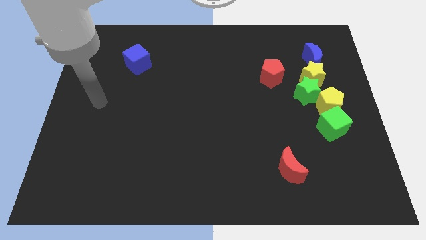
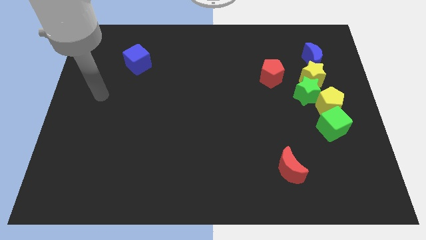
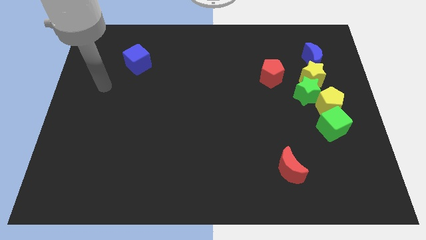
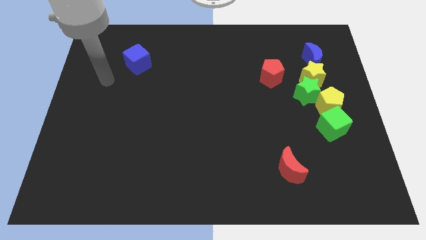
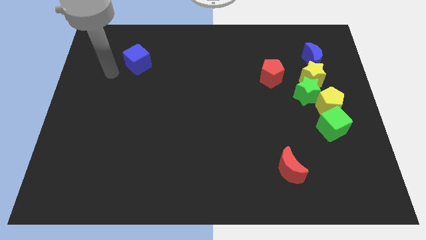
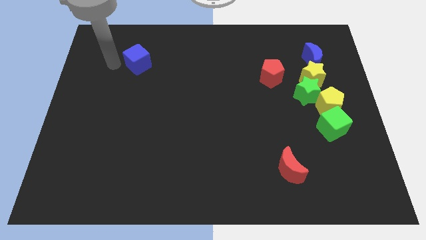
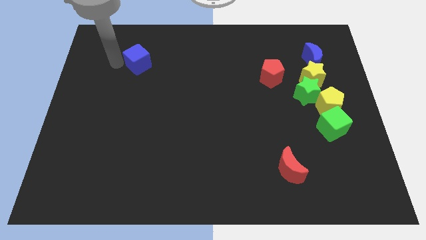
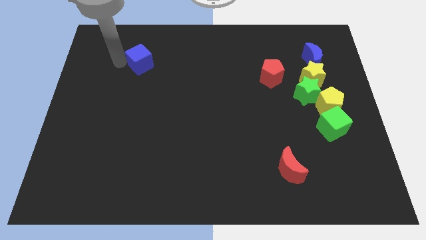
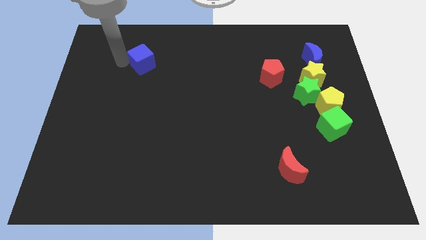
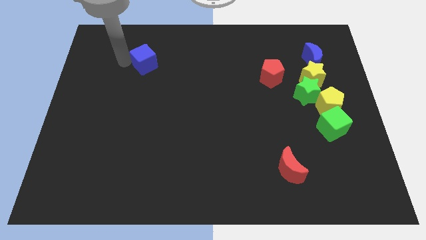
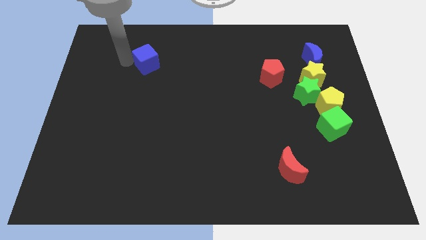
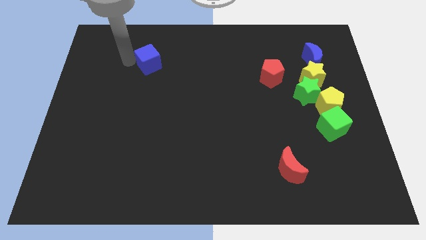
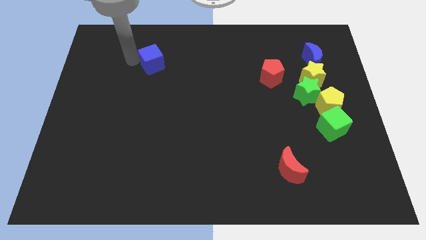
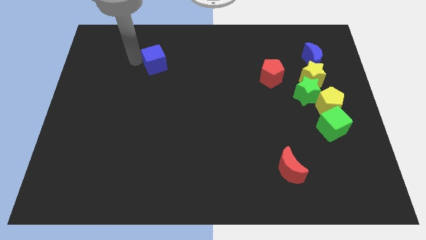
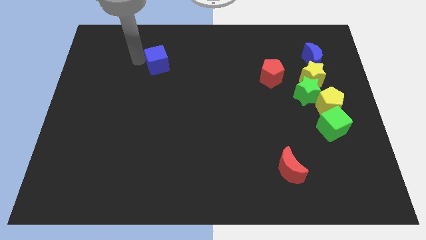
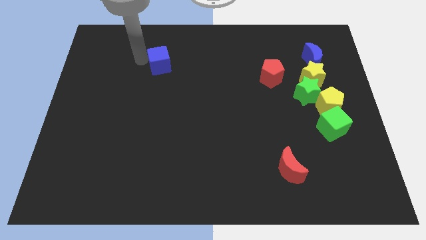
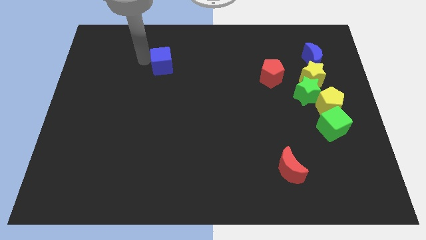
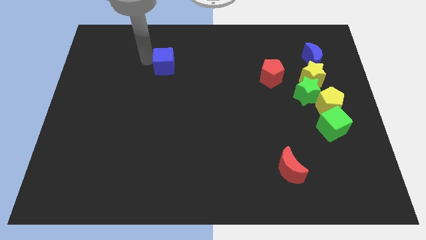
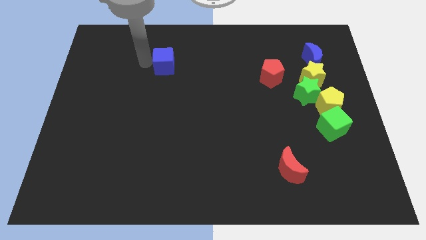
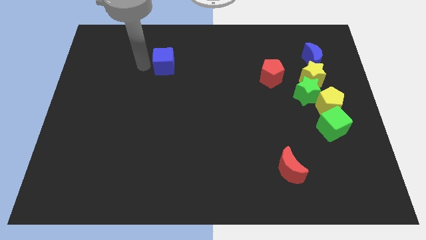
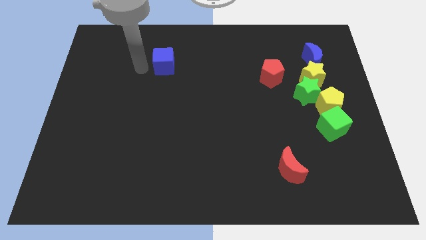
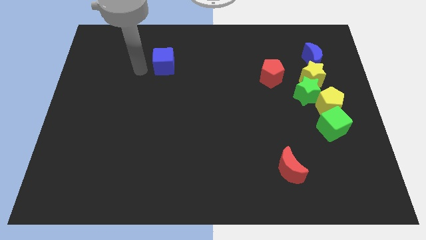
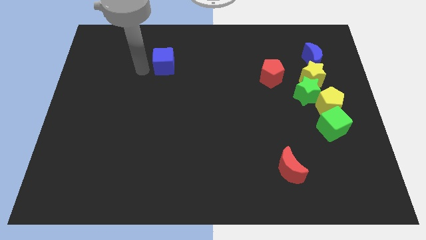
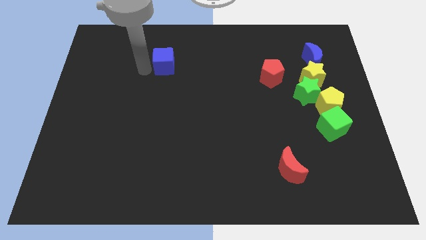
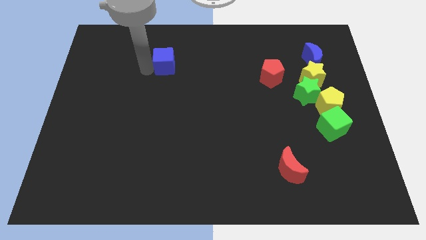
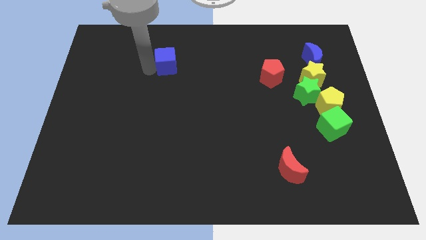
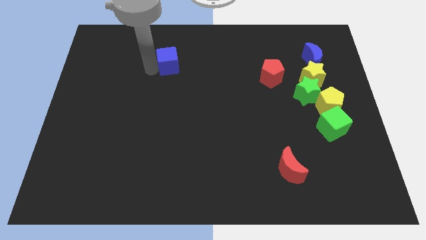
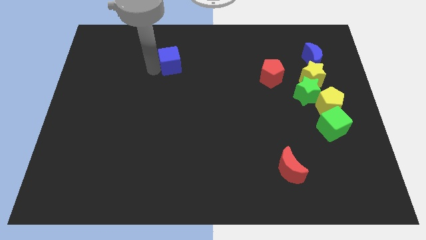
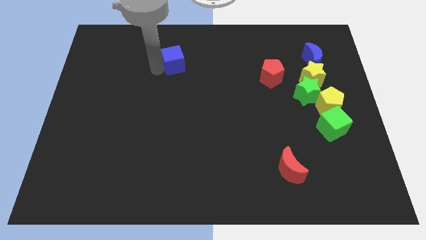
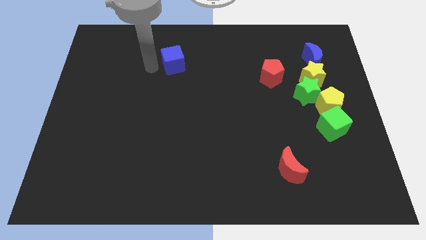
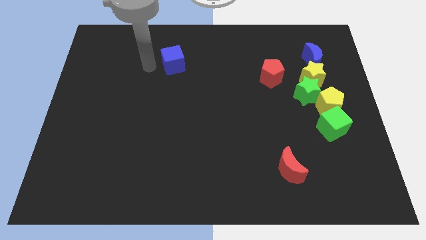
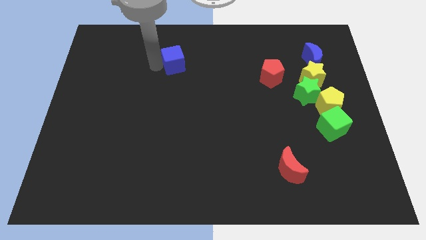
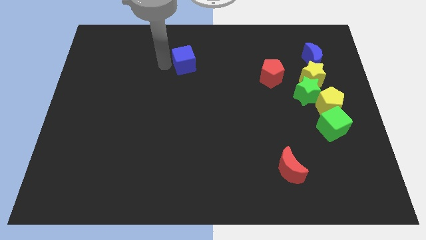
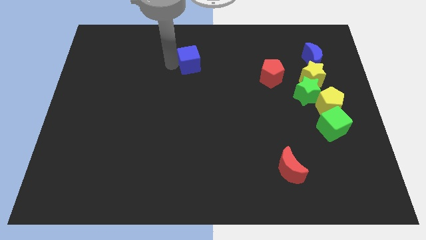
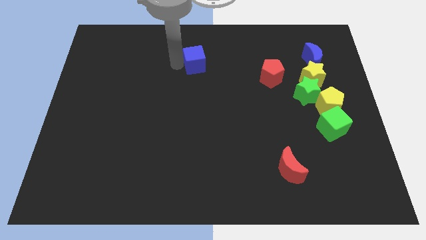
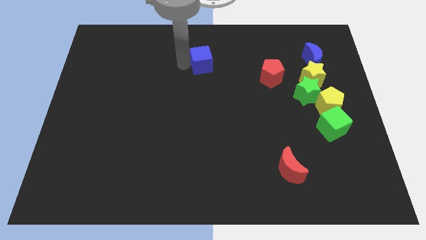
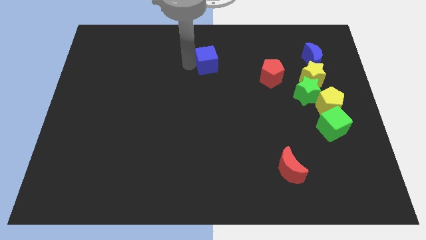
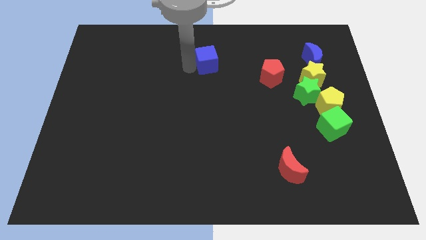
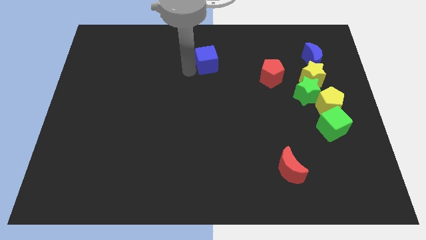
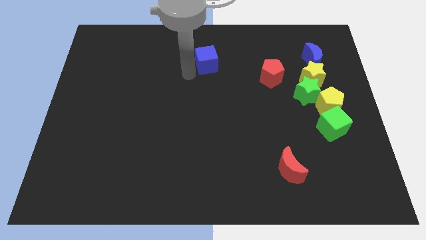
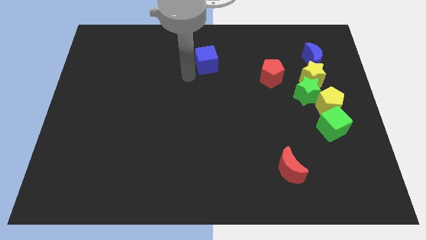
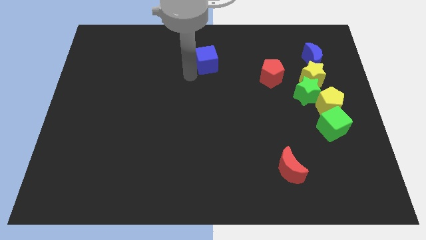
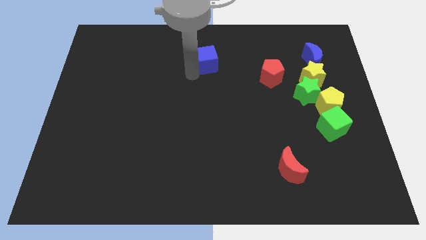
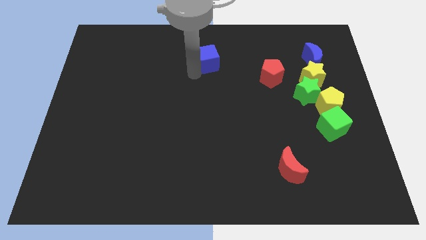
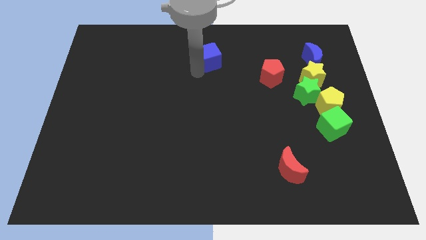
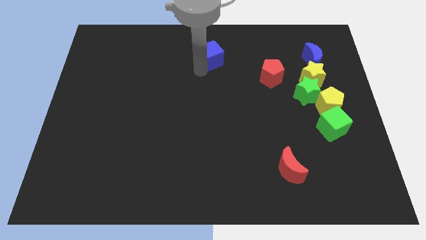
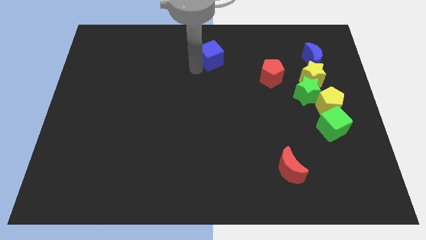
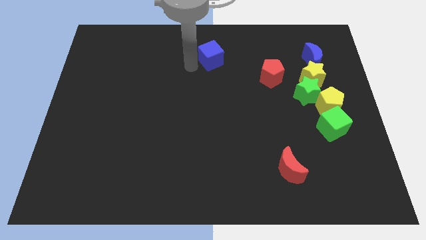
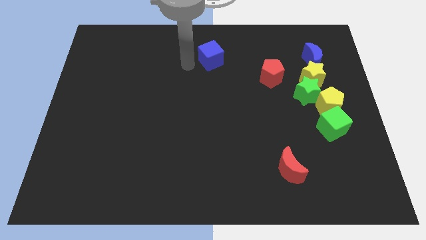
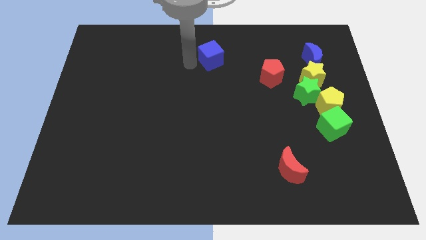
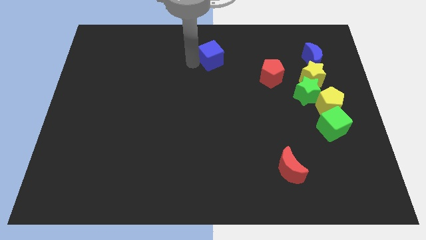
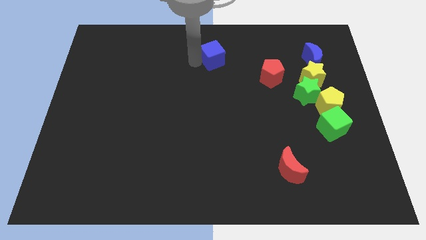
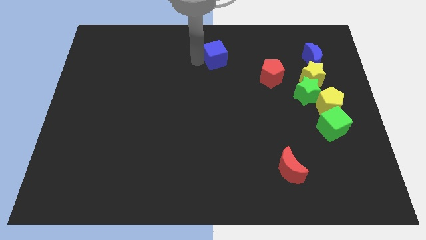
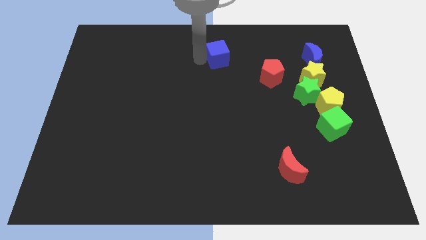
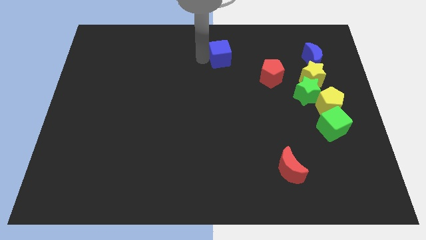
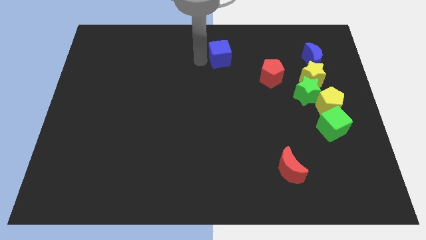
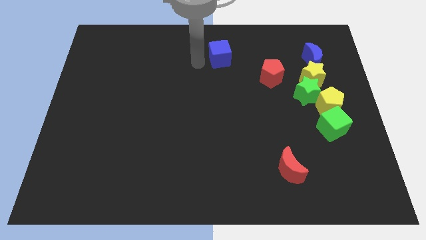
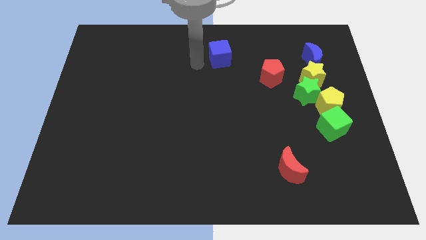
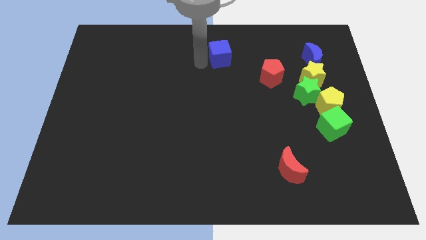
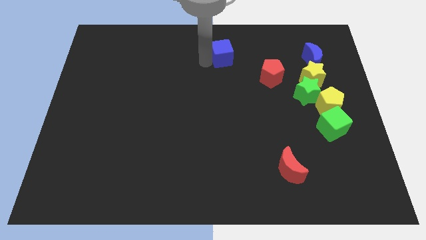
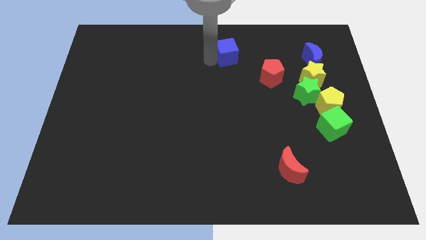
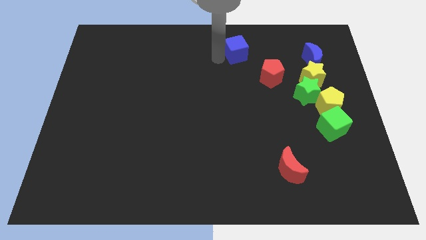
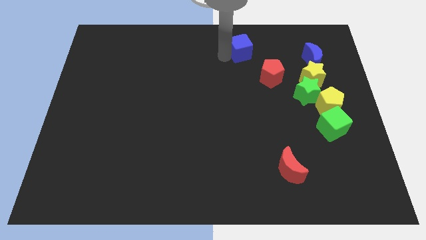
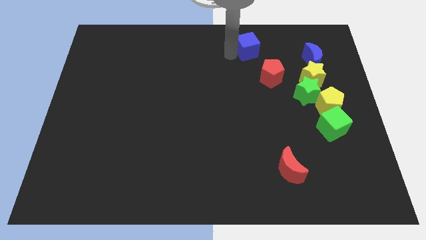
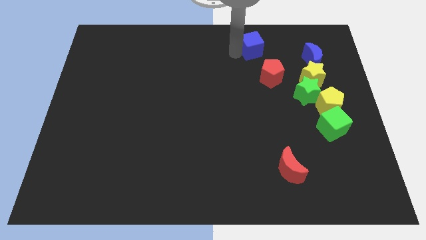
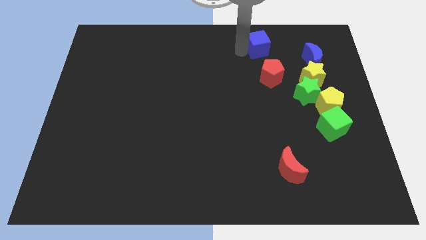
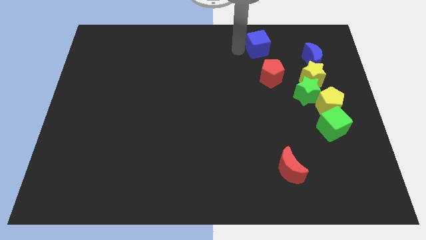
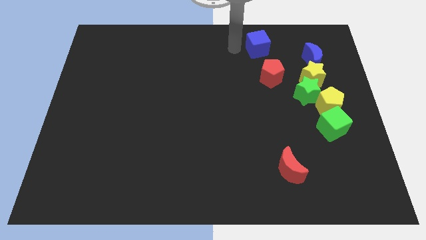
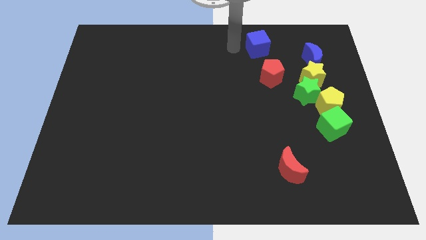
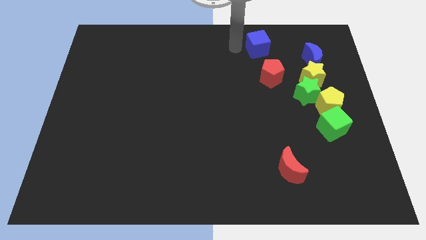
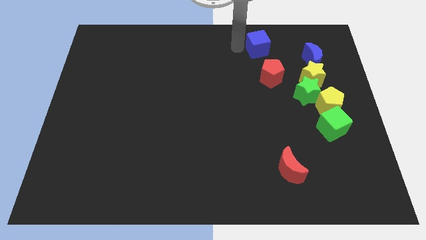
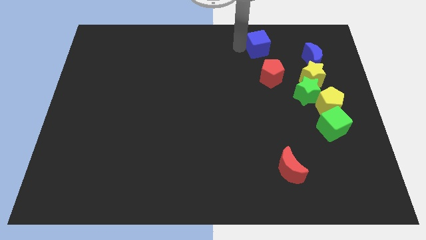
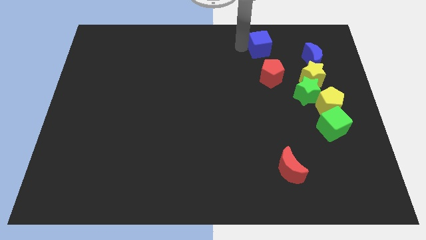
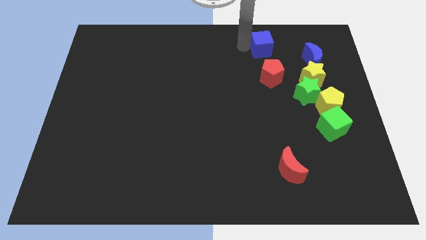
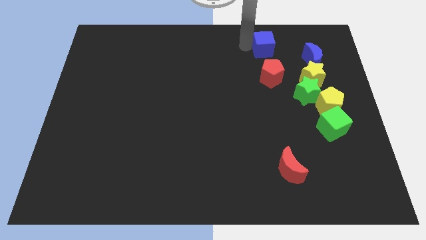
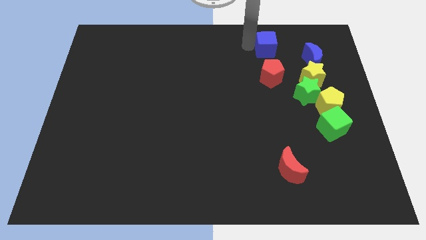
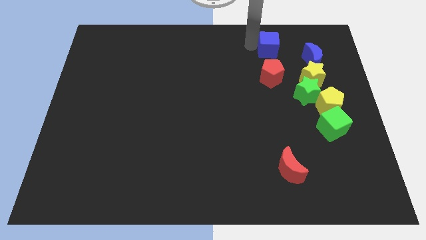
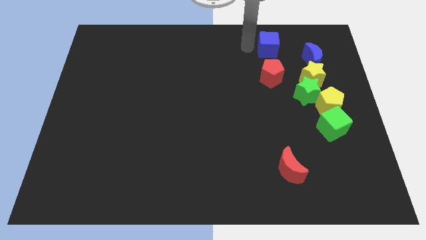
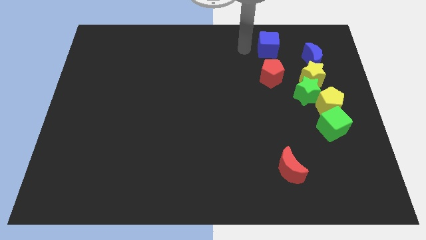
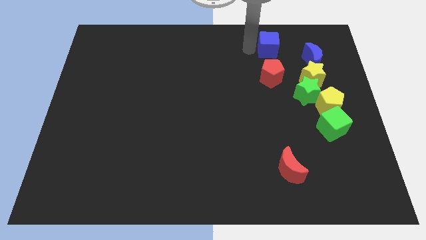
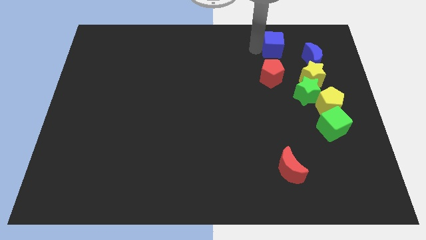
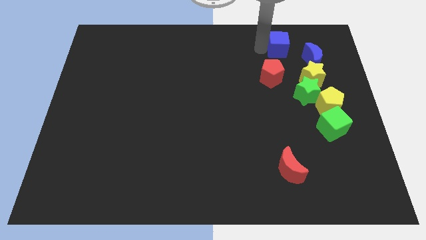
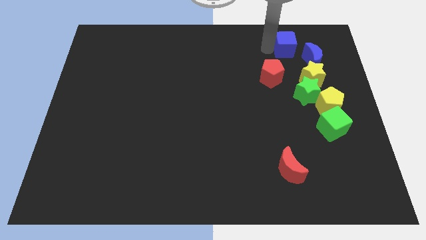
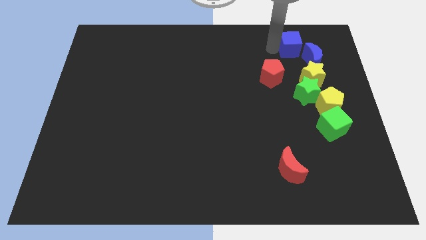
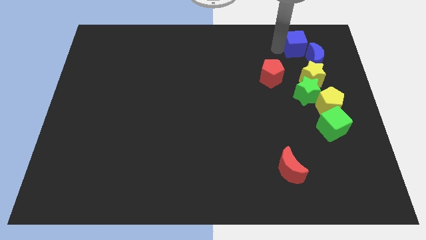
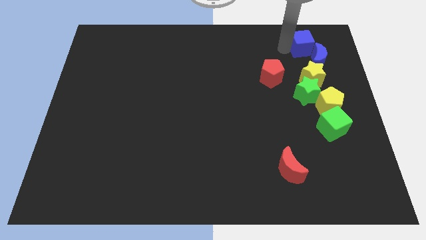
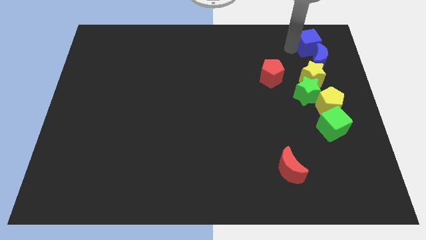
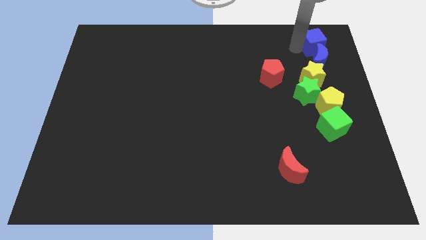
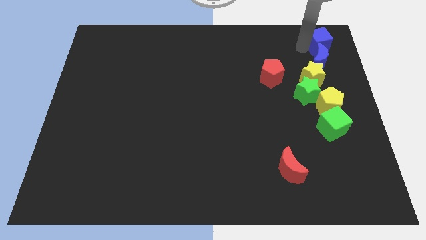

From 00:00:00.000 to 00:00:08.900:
push the blue cube to the top right of the board
